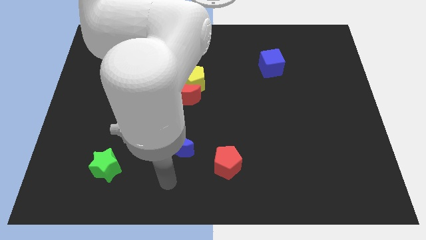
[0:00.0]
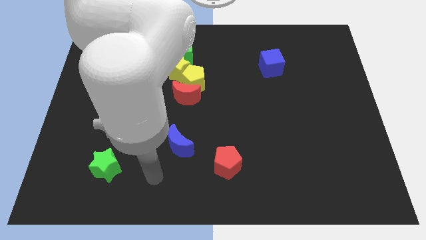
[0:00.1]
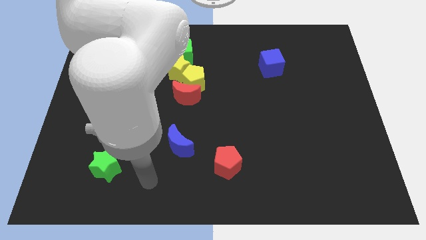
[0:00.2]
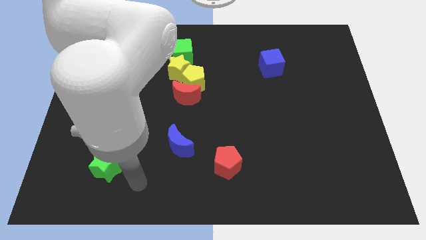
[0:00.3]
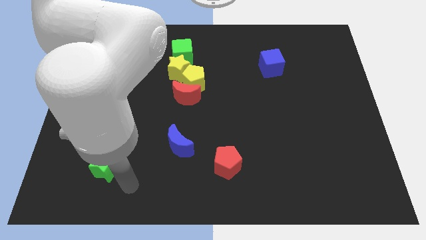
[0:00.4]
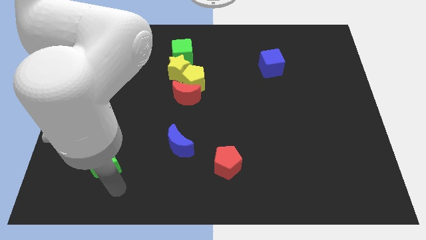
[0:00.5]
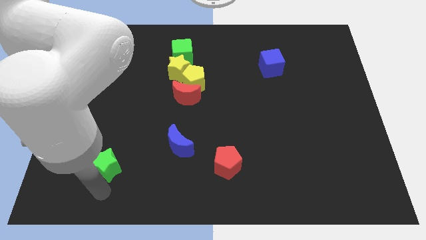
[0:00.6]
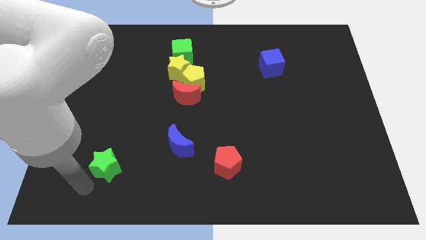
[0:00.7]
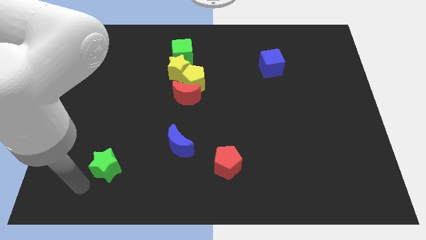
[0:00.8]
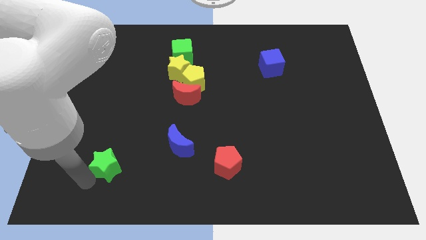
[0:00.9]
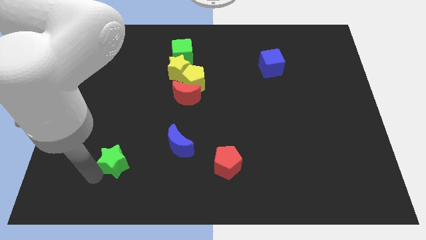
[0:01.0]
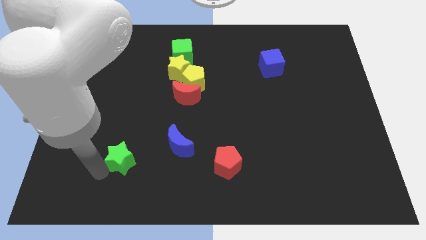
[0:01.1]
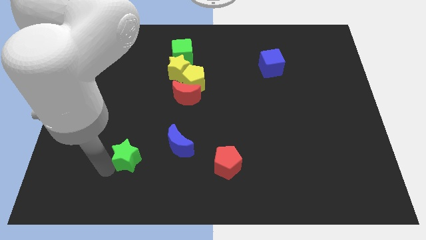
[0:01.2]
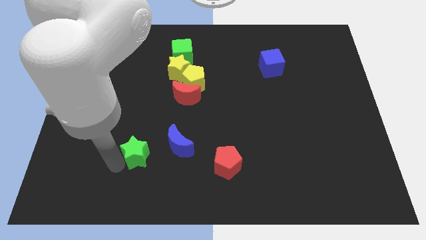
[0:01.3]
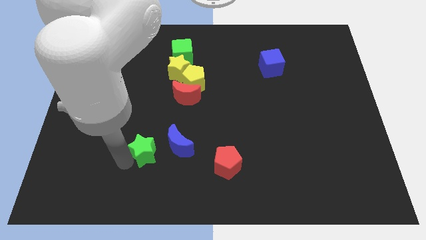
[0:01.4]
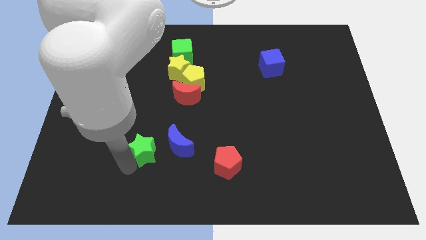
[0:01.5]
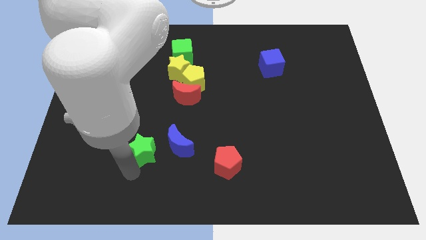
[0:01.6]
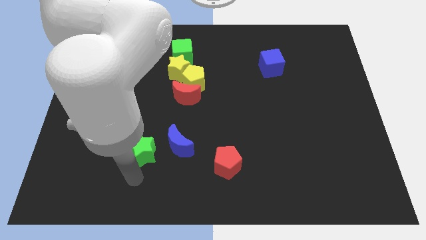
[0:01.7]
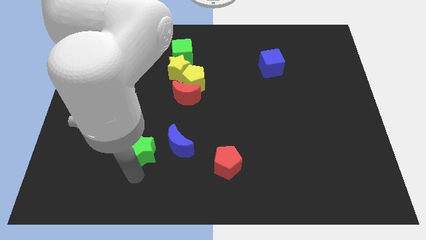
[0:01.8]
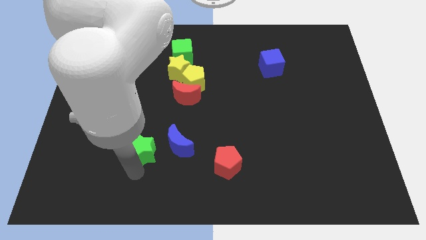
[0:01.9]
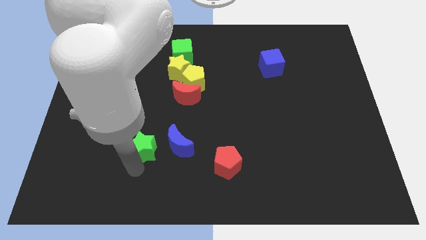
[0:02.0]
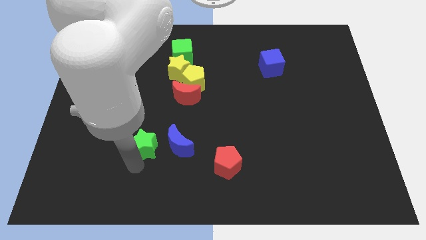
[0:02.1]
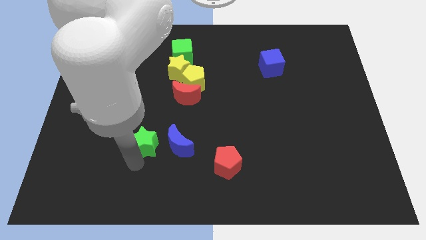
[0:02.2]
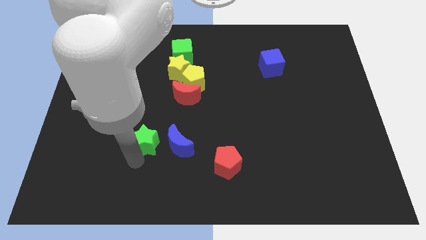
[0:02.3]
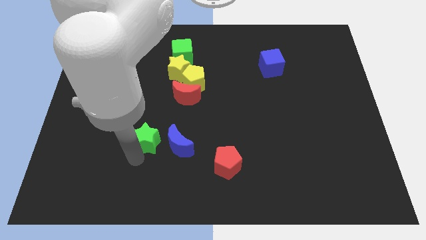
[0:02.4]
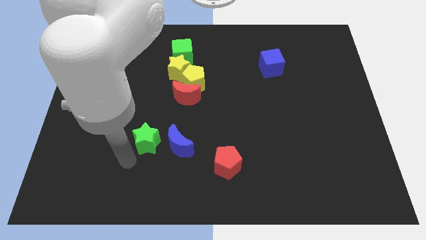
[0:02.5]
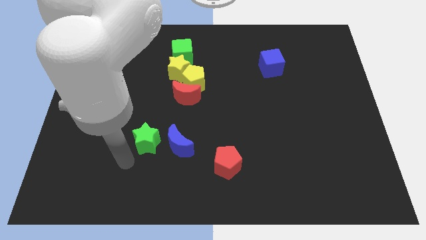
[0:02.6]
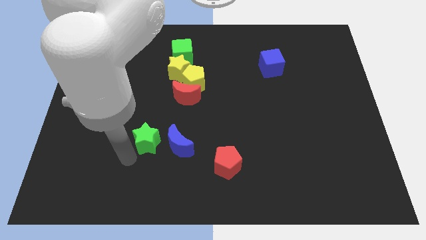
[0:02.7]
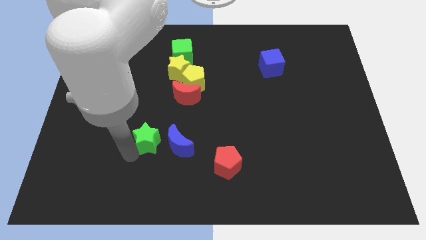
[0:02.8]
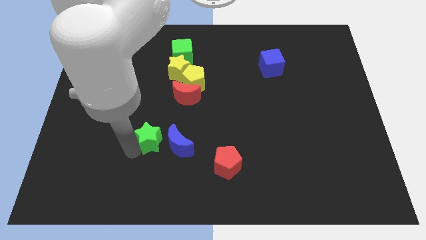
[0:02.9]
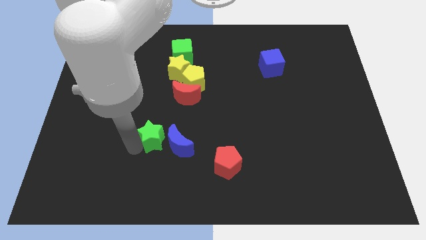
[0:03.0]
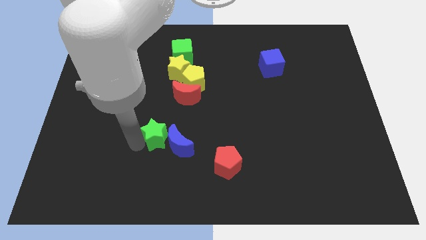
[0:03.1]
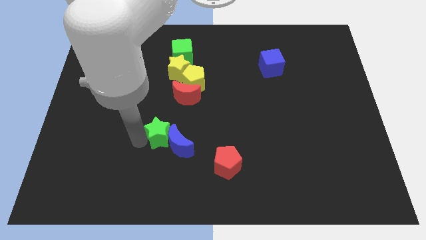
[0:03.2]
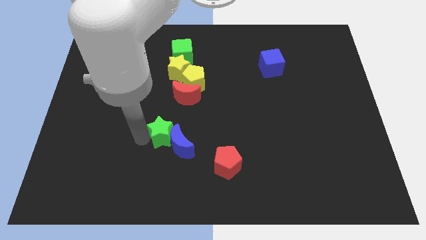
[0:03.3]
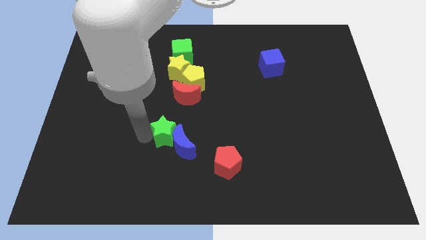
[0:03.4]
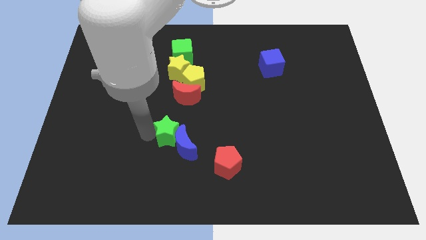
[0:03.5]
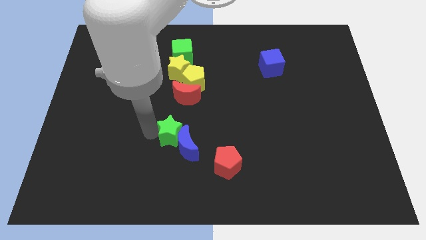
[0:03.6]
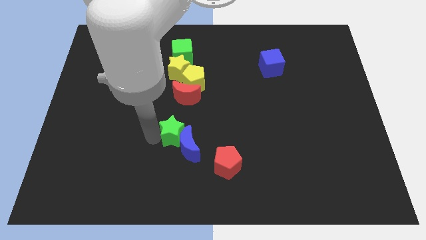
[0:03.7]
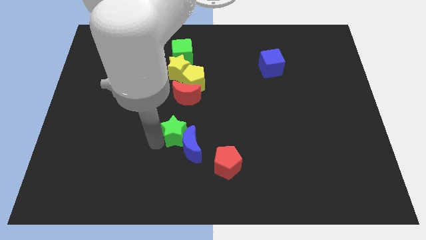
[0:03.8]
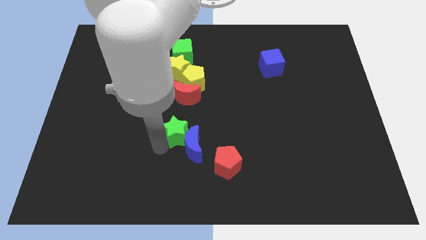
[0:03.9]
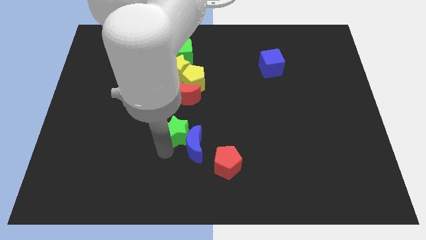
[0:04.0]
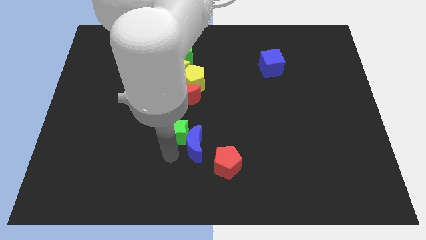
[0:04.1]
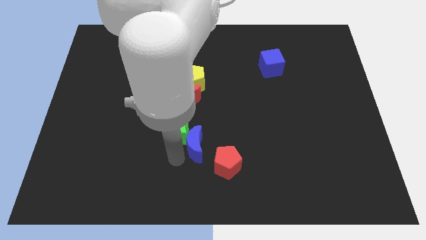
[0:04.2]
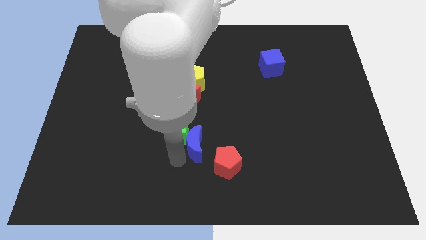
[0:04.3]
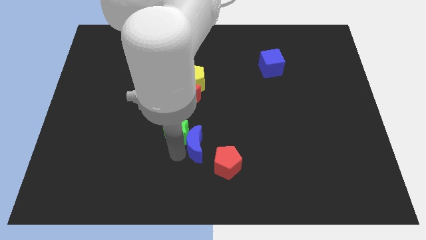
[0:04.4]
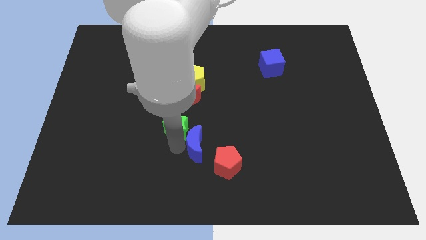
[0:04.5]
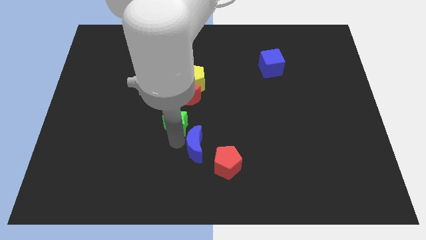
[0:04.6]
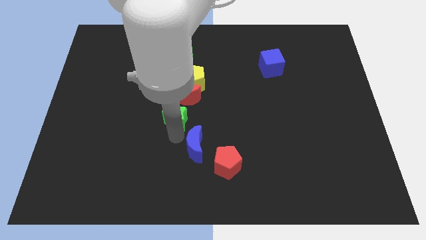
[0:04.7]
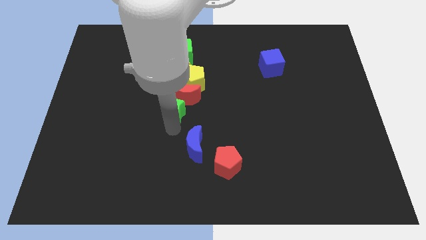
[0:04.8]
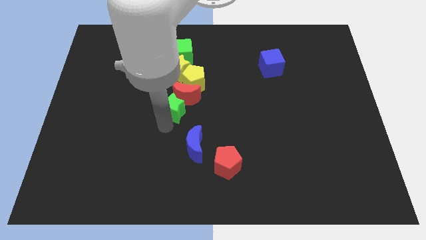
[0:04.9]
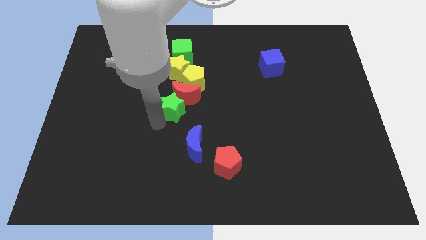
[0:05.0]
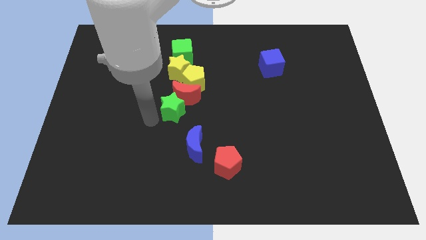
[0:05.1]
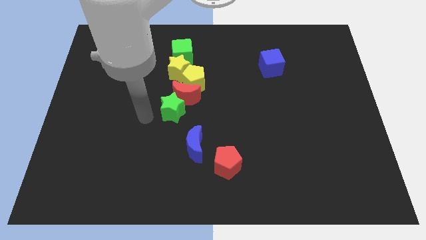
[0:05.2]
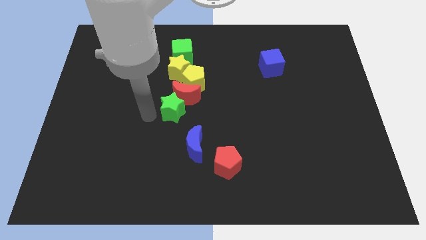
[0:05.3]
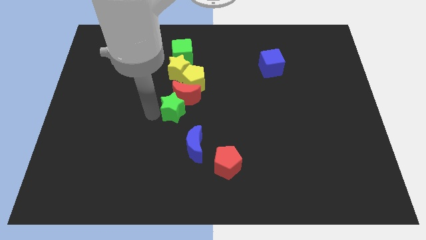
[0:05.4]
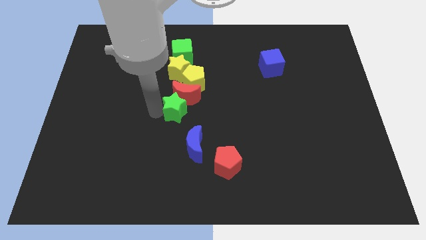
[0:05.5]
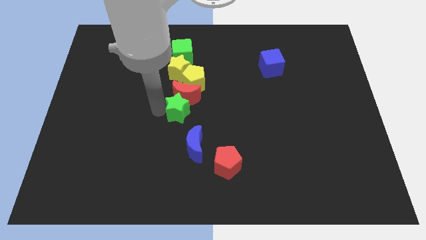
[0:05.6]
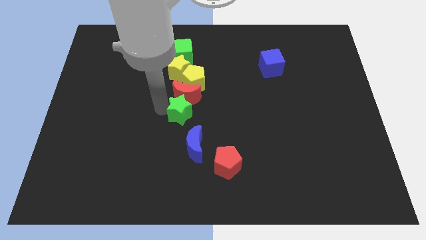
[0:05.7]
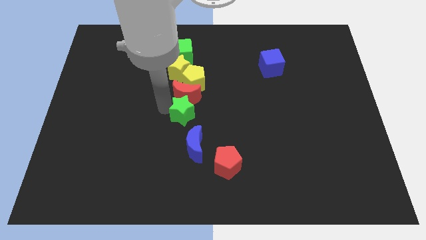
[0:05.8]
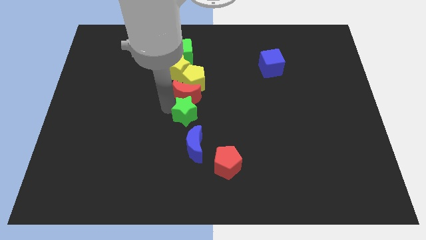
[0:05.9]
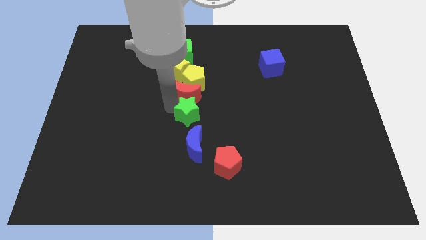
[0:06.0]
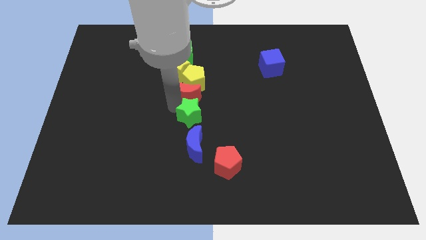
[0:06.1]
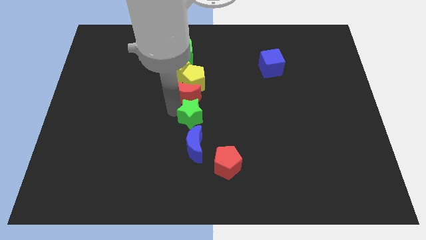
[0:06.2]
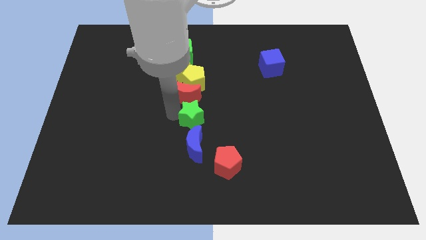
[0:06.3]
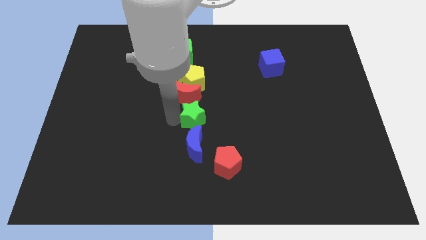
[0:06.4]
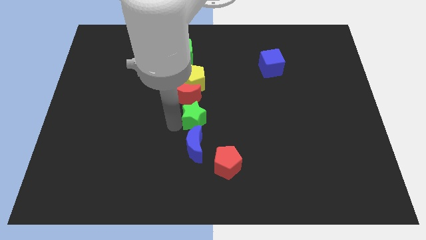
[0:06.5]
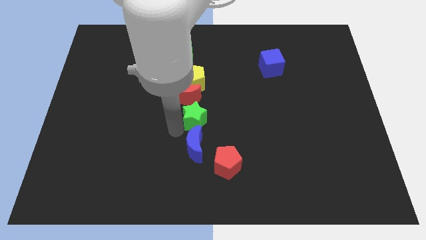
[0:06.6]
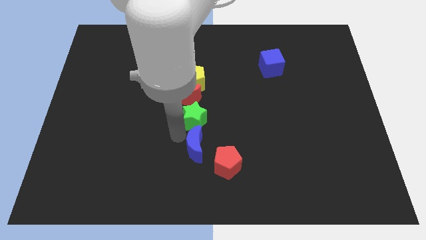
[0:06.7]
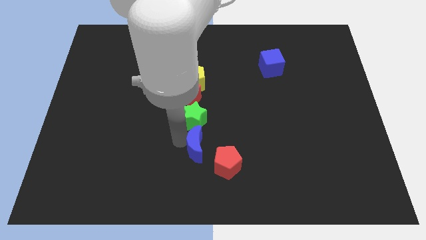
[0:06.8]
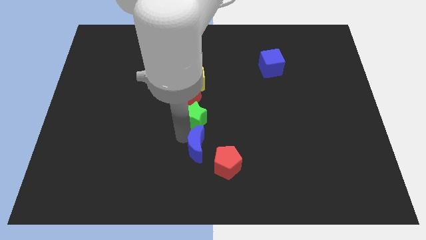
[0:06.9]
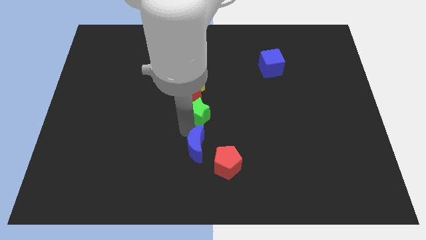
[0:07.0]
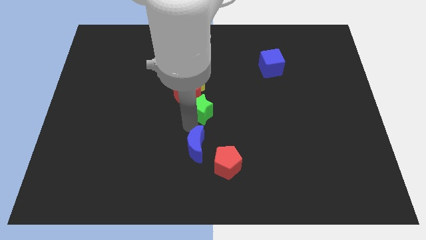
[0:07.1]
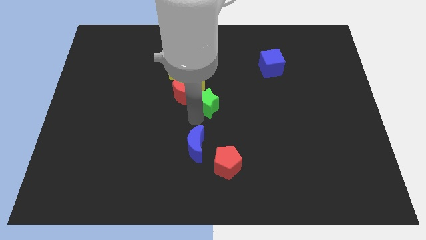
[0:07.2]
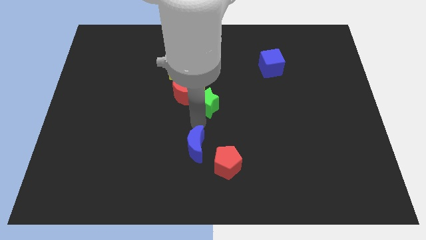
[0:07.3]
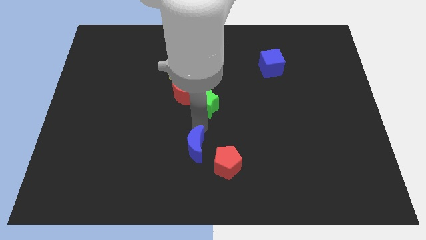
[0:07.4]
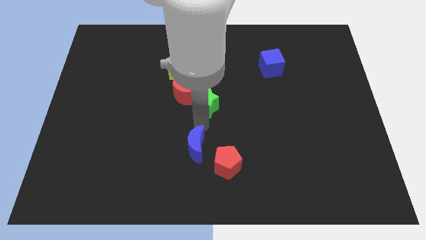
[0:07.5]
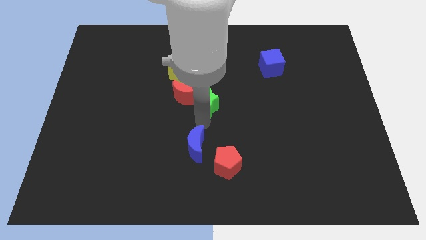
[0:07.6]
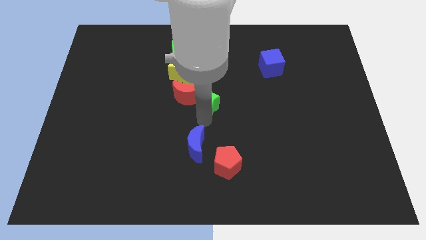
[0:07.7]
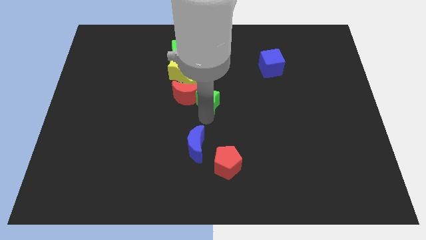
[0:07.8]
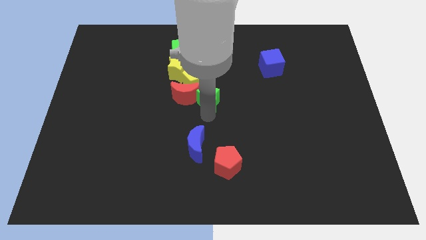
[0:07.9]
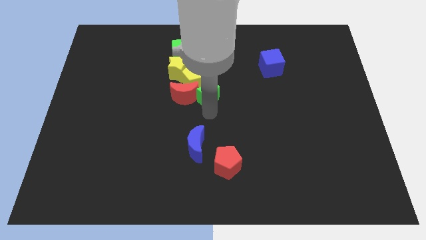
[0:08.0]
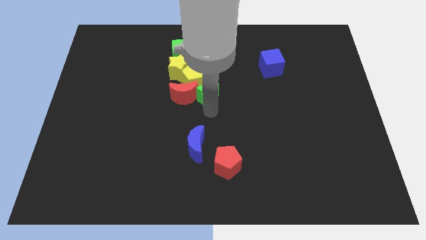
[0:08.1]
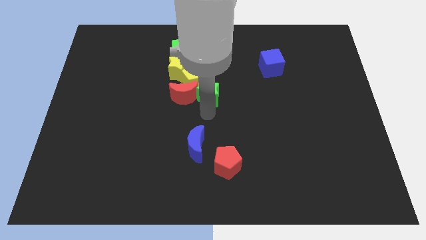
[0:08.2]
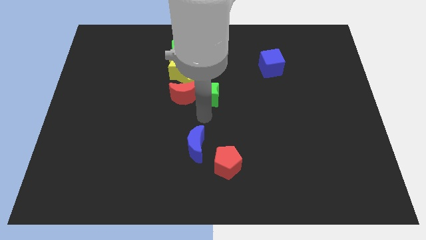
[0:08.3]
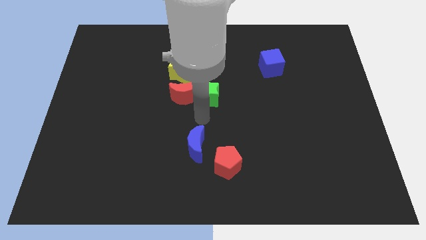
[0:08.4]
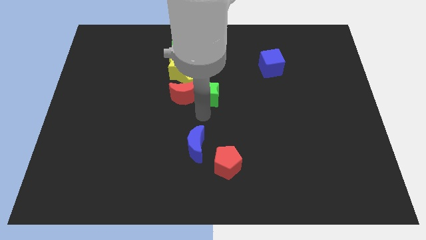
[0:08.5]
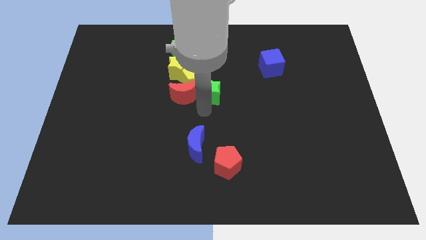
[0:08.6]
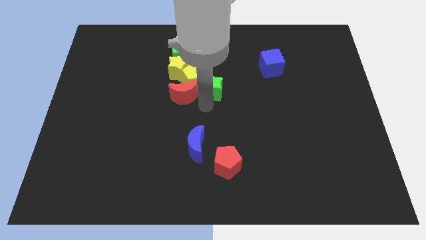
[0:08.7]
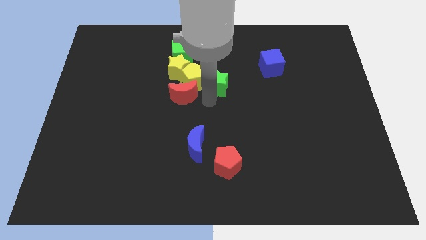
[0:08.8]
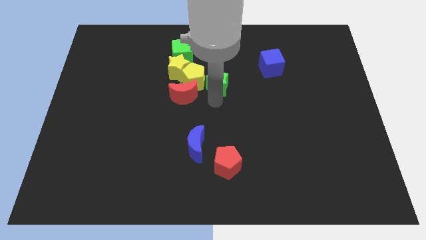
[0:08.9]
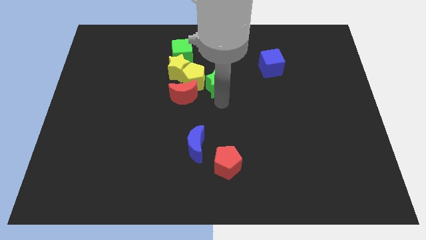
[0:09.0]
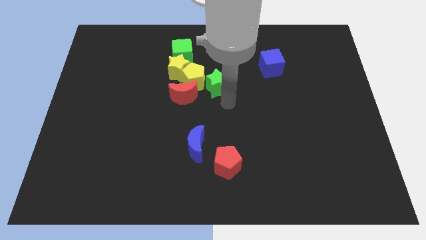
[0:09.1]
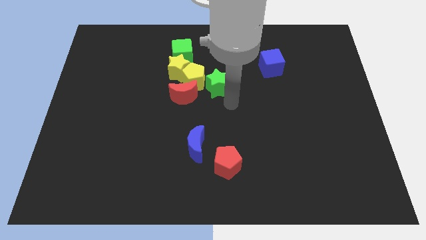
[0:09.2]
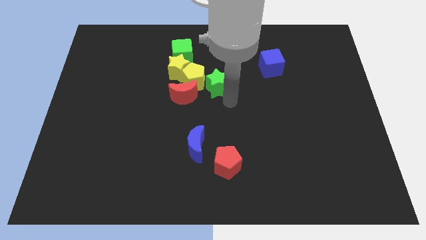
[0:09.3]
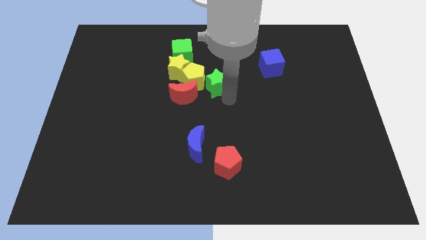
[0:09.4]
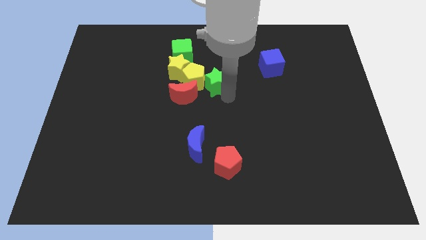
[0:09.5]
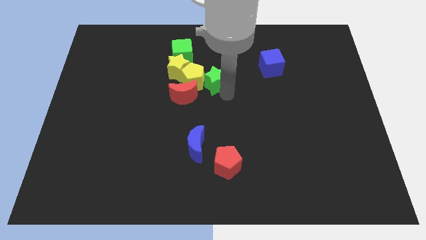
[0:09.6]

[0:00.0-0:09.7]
put the green star to the bottom right of the green cube
